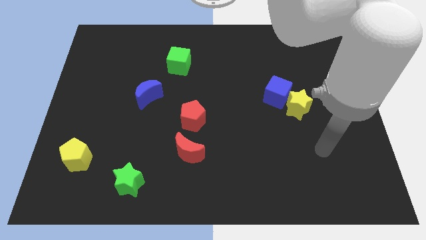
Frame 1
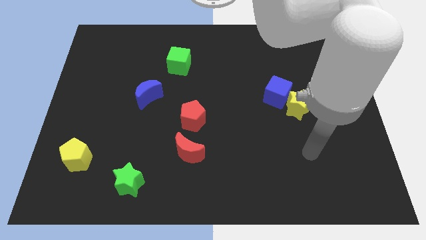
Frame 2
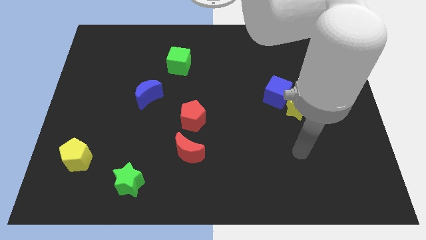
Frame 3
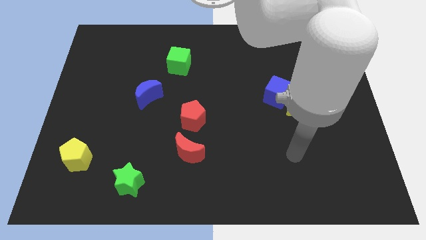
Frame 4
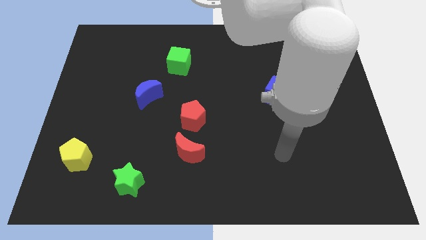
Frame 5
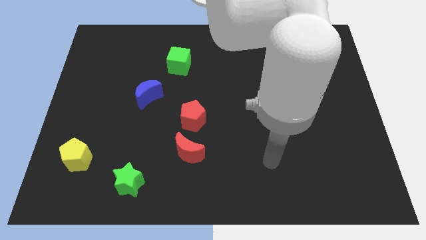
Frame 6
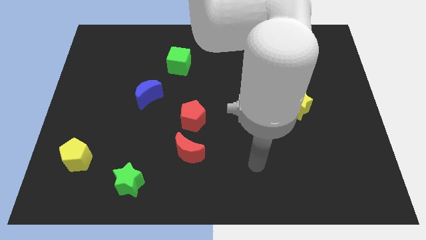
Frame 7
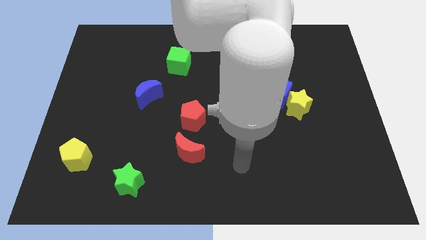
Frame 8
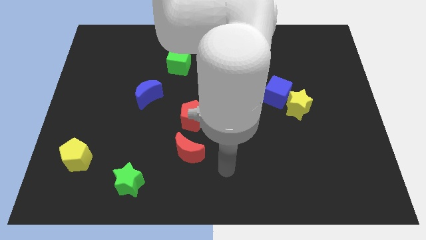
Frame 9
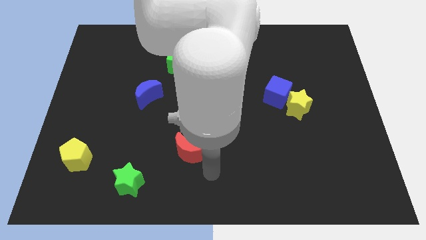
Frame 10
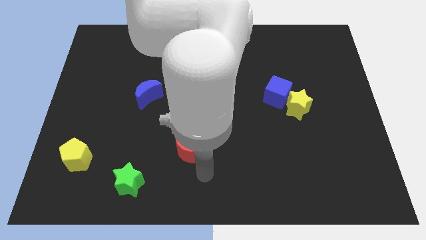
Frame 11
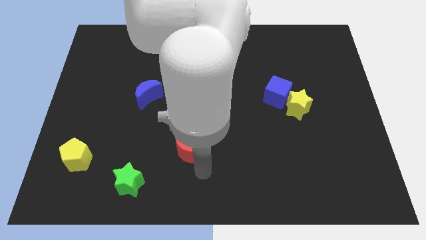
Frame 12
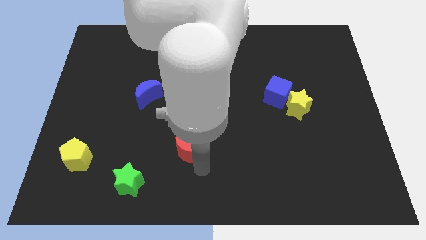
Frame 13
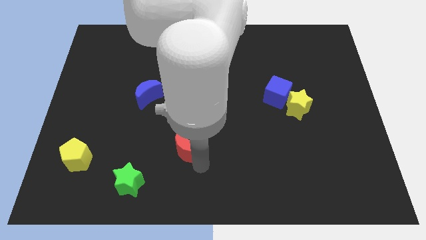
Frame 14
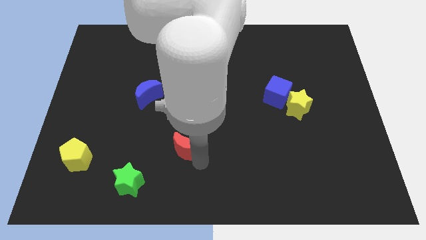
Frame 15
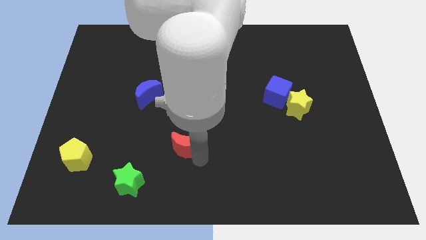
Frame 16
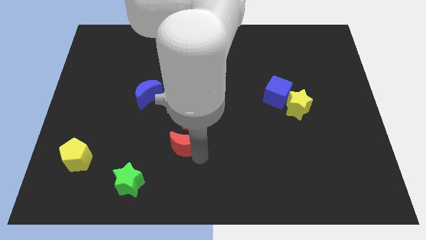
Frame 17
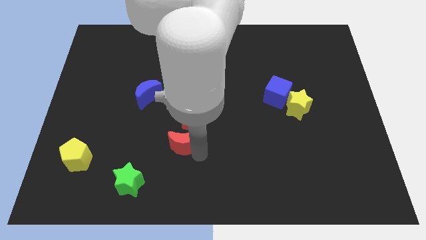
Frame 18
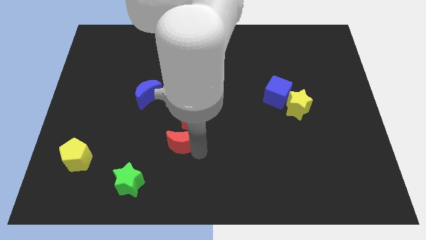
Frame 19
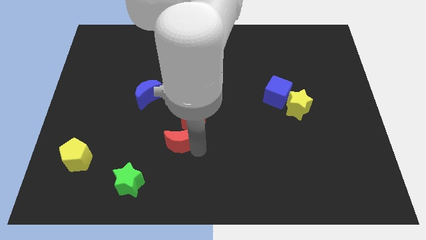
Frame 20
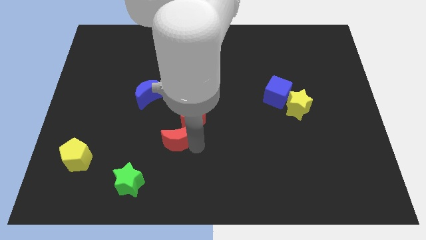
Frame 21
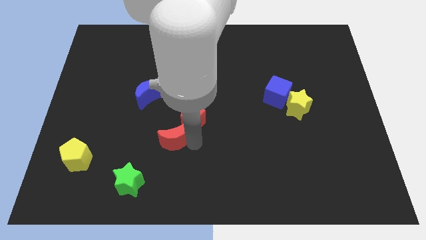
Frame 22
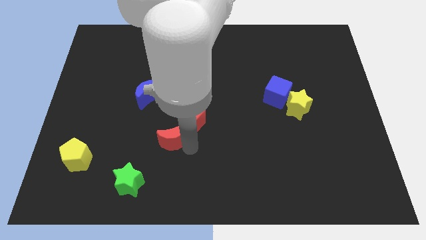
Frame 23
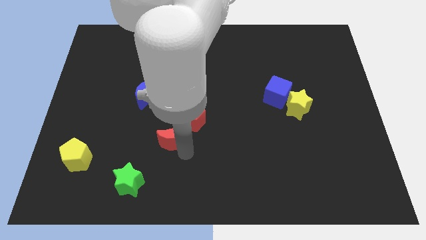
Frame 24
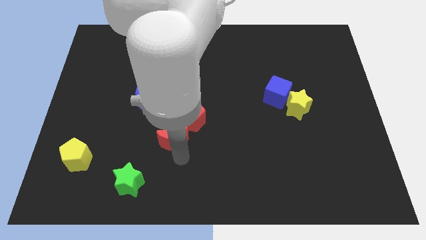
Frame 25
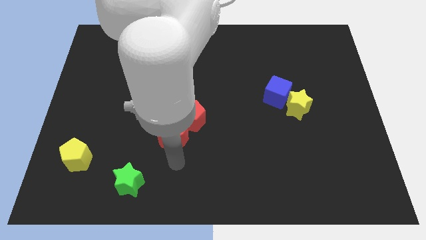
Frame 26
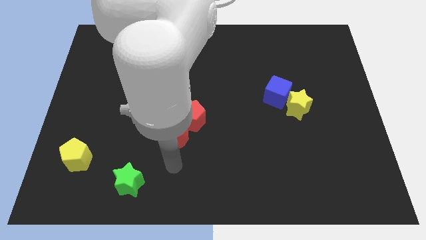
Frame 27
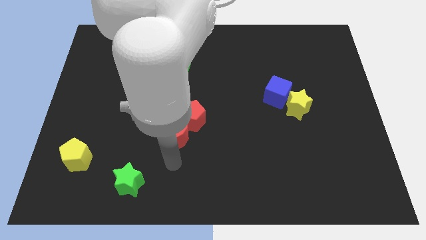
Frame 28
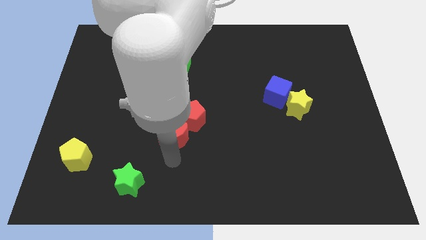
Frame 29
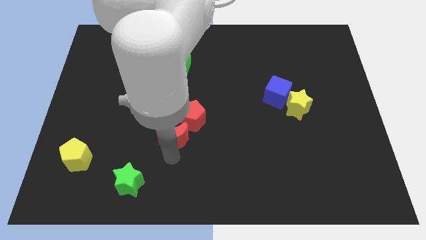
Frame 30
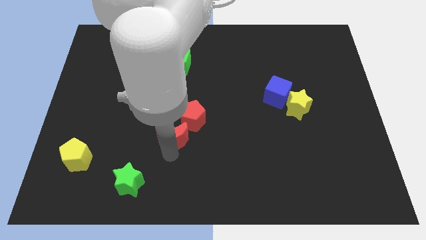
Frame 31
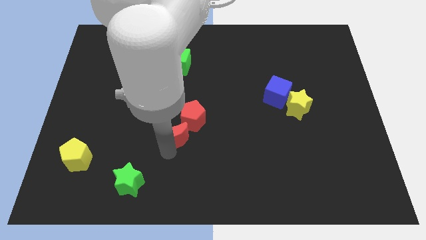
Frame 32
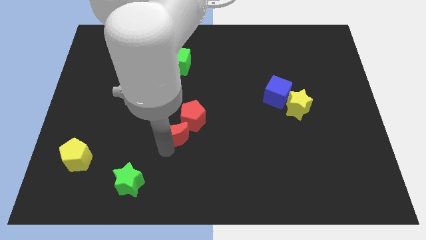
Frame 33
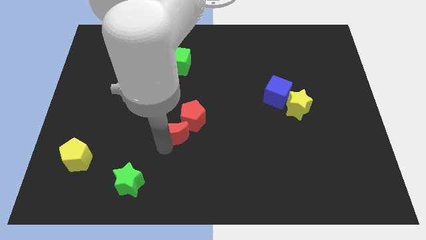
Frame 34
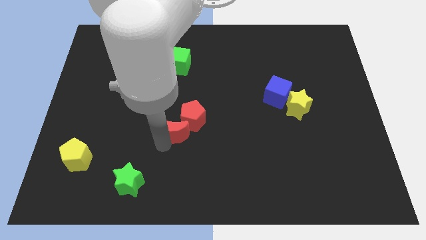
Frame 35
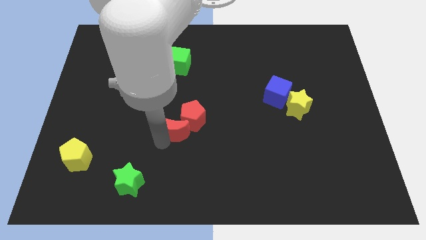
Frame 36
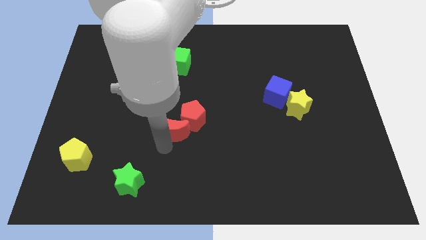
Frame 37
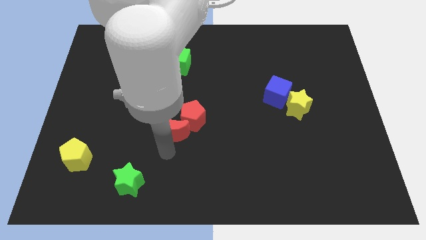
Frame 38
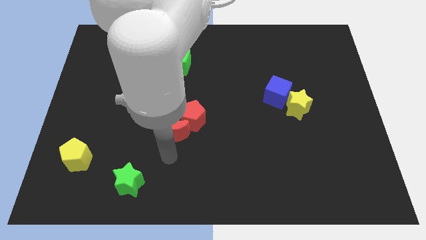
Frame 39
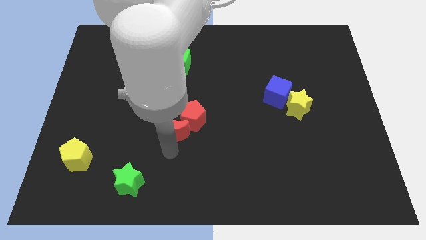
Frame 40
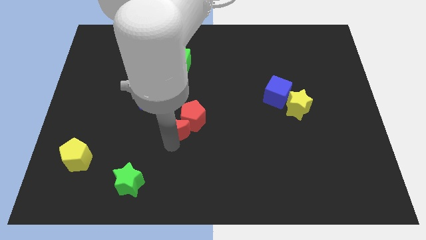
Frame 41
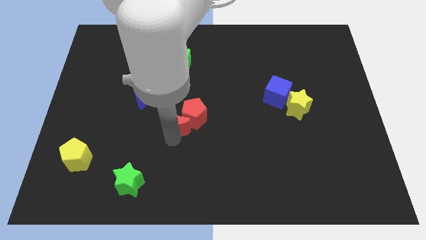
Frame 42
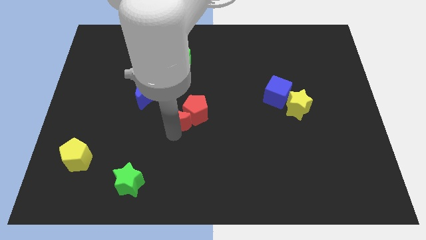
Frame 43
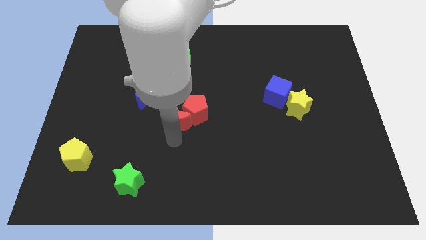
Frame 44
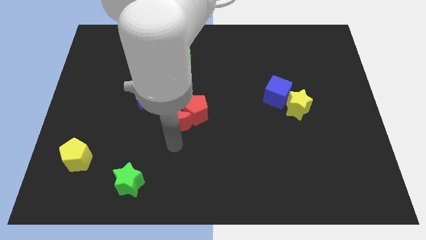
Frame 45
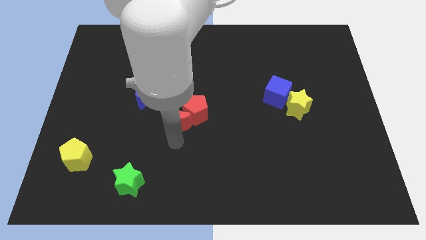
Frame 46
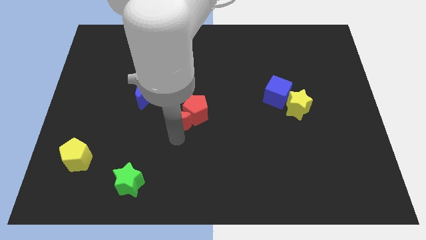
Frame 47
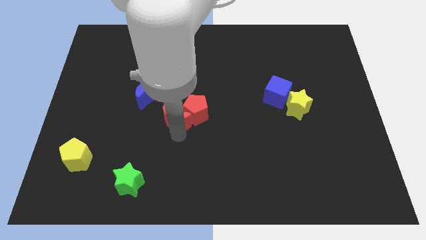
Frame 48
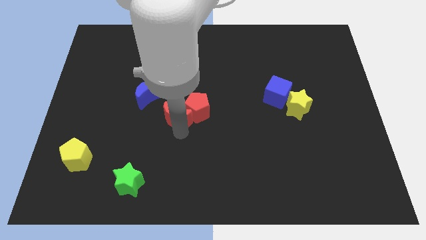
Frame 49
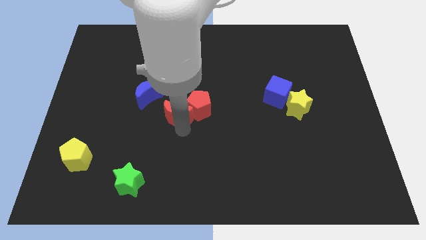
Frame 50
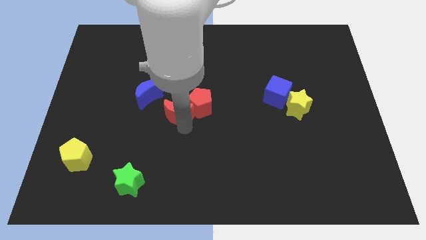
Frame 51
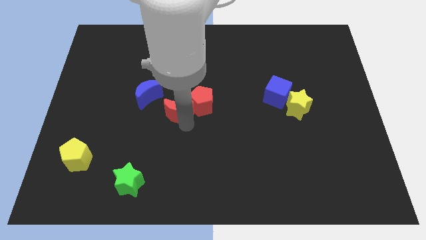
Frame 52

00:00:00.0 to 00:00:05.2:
push the red moon to the bottom of the green cube

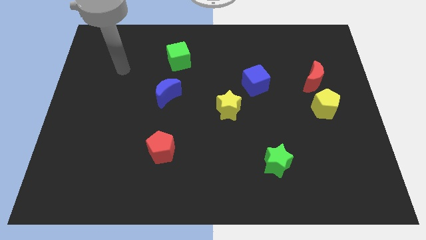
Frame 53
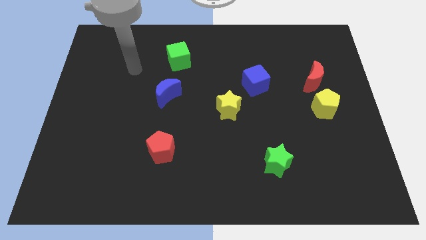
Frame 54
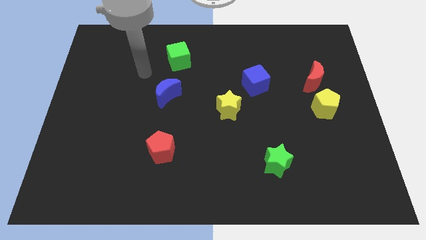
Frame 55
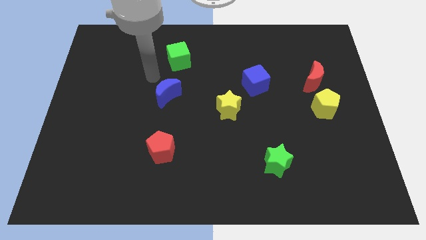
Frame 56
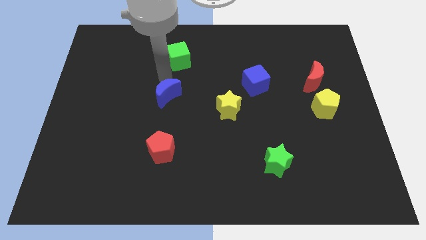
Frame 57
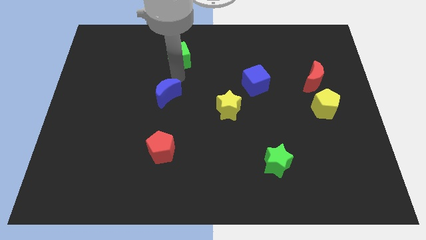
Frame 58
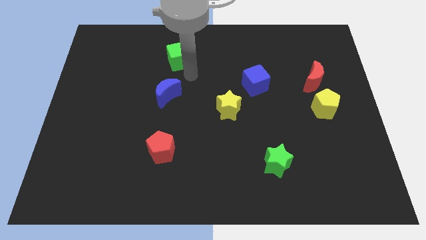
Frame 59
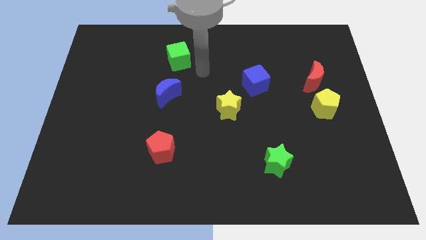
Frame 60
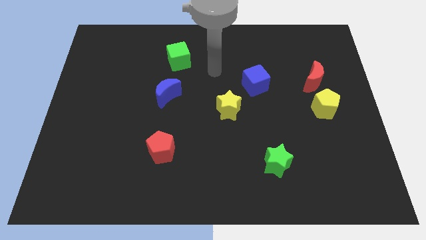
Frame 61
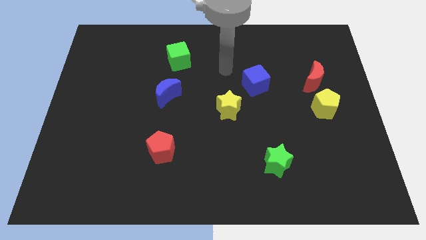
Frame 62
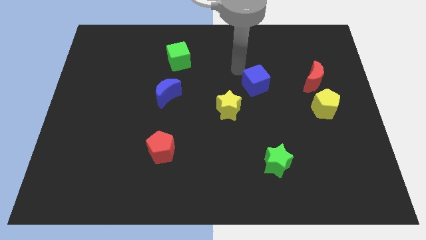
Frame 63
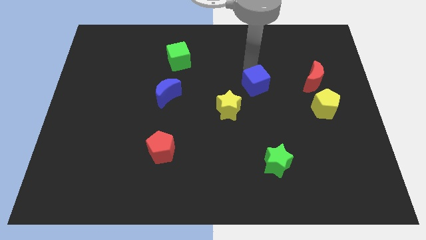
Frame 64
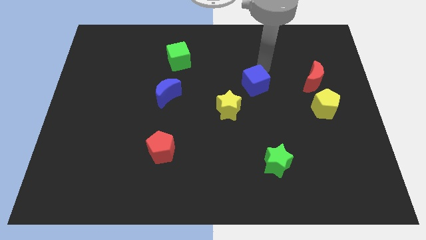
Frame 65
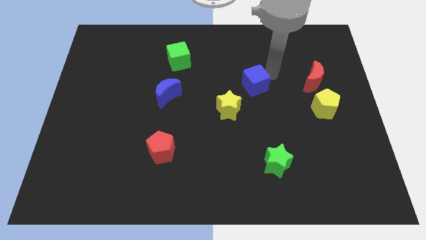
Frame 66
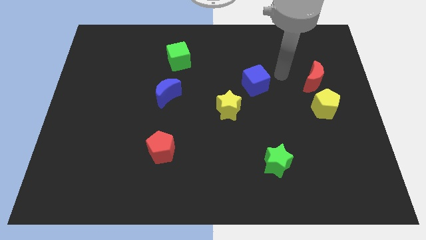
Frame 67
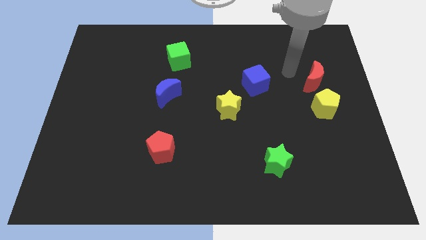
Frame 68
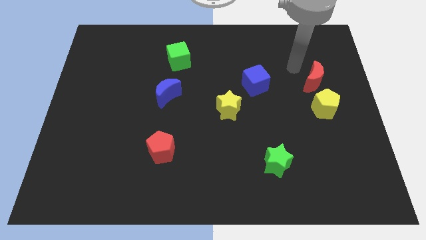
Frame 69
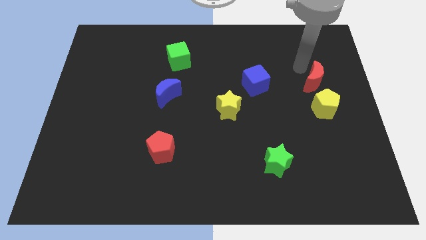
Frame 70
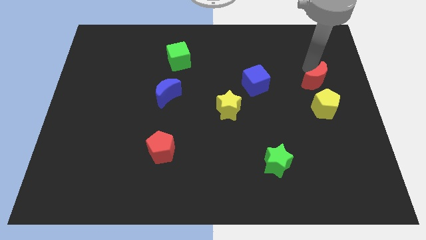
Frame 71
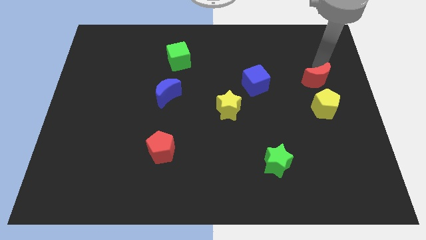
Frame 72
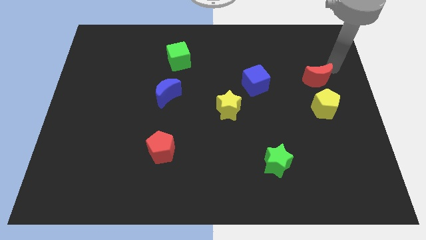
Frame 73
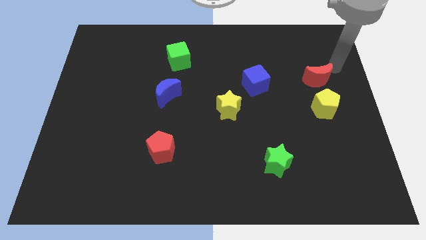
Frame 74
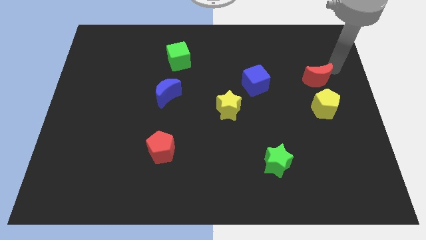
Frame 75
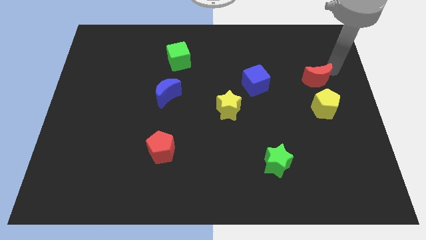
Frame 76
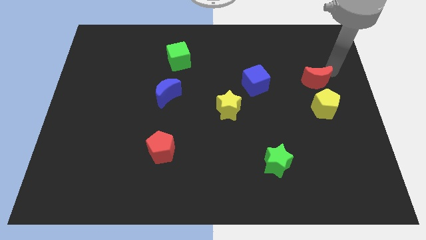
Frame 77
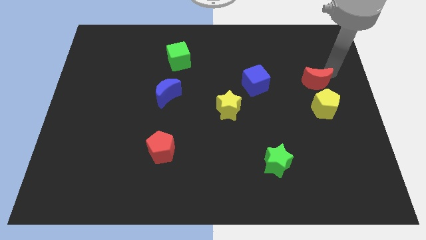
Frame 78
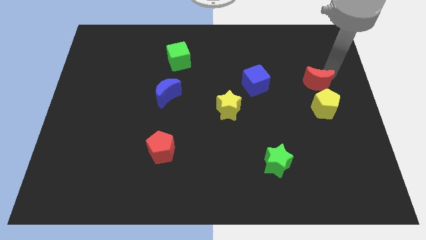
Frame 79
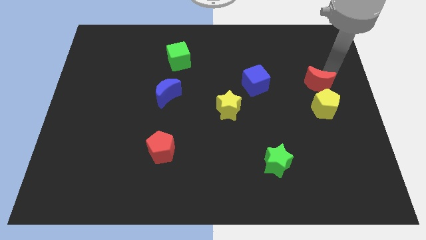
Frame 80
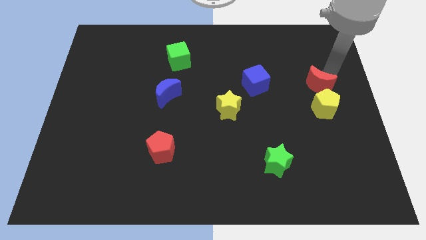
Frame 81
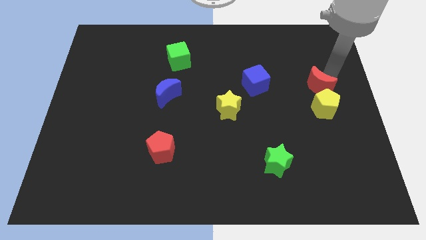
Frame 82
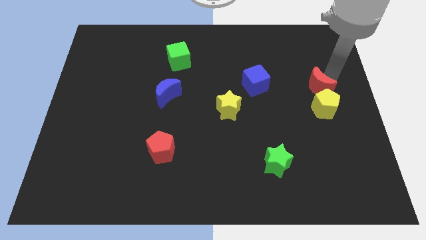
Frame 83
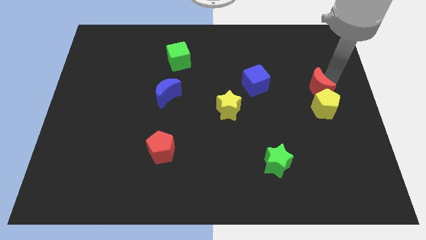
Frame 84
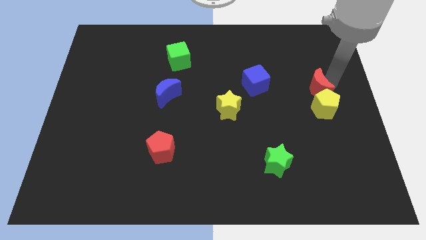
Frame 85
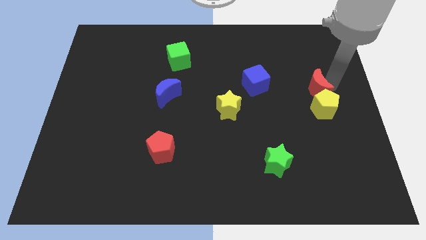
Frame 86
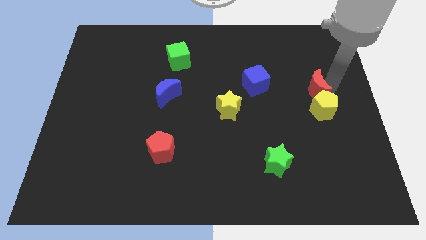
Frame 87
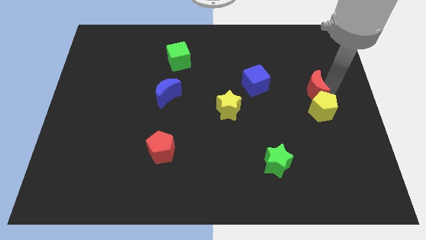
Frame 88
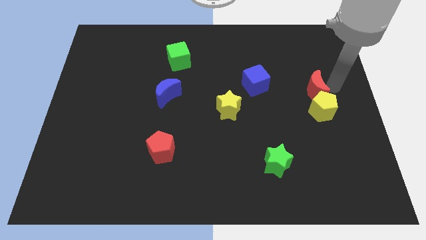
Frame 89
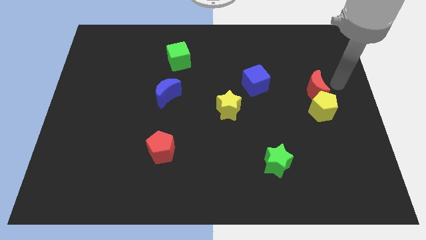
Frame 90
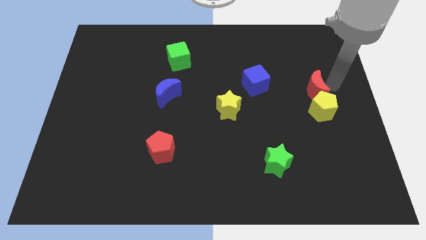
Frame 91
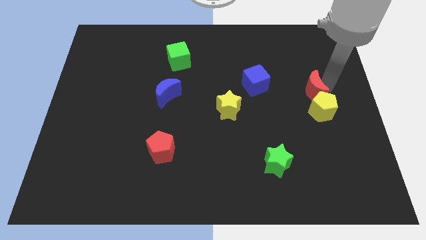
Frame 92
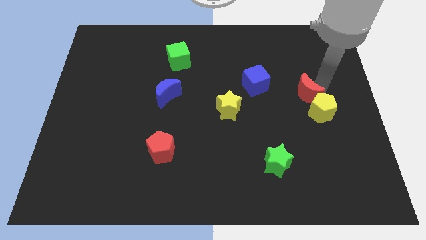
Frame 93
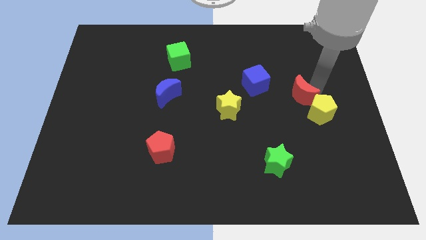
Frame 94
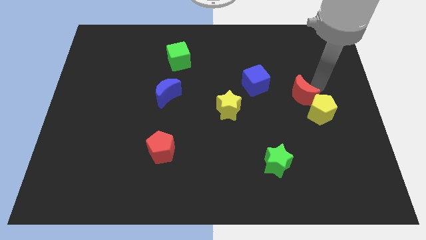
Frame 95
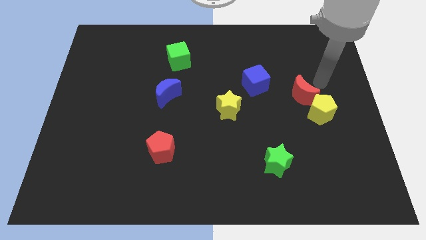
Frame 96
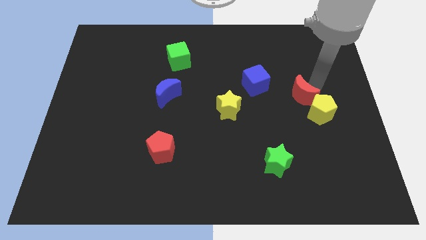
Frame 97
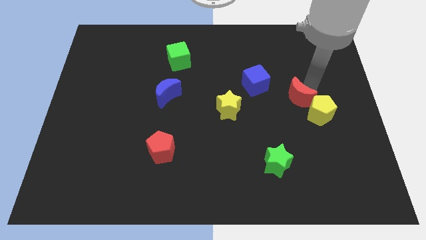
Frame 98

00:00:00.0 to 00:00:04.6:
push the red moon to the left side of the yellow pentagon
